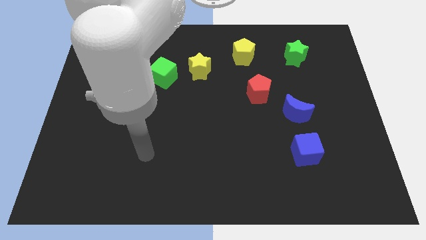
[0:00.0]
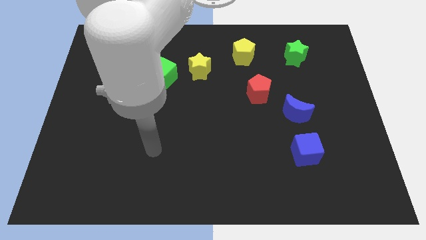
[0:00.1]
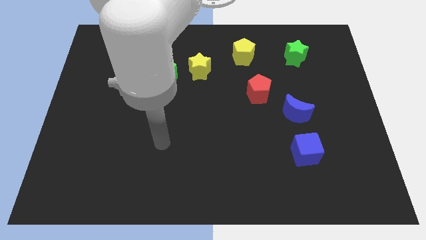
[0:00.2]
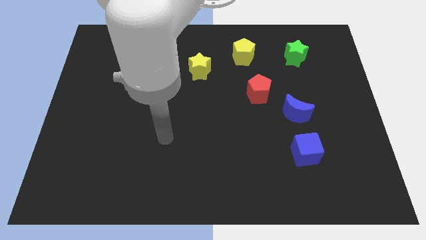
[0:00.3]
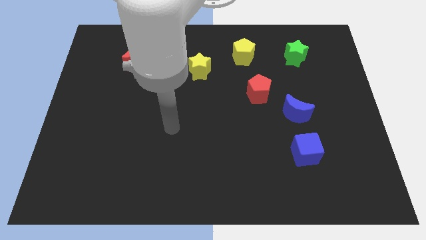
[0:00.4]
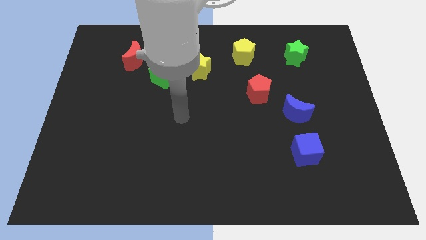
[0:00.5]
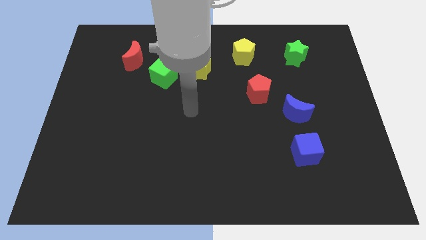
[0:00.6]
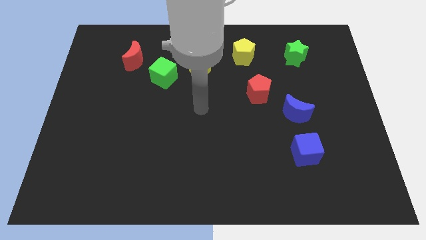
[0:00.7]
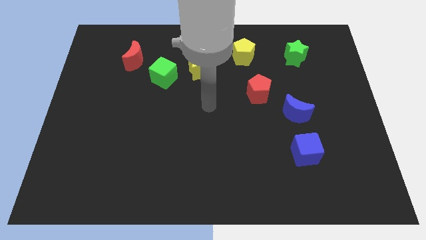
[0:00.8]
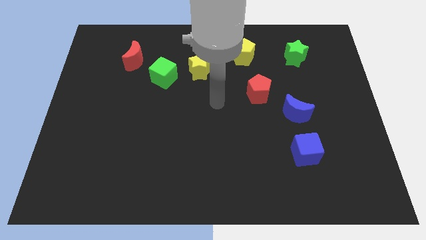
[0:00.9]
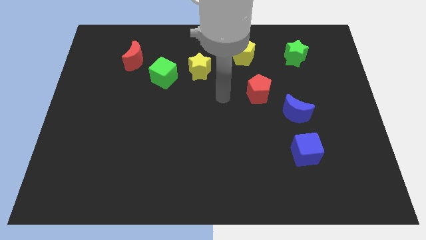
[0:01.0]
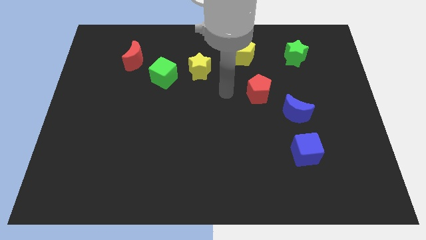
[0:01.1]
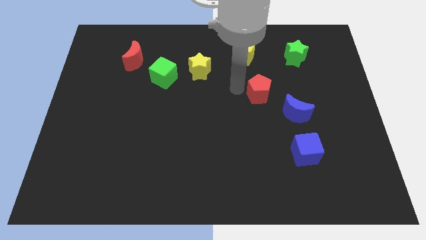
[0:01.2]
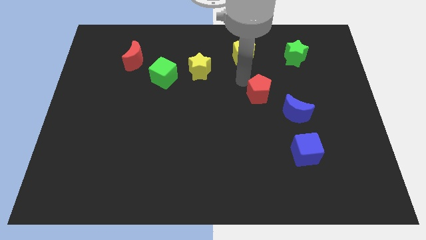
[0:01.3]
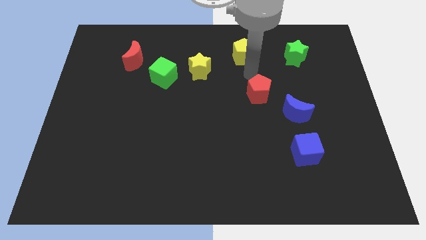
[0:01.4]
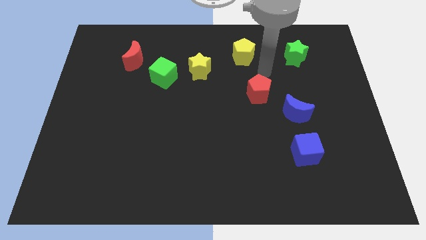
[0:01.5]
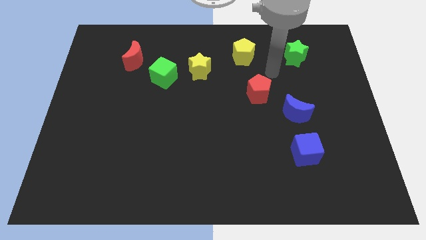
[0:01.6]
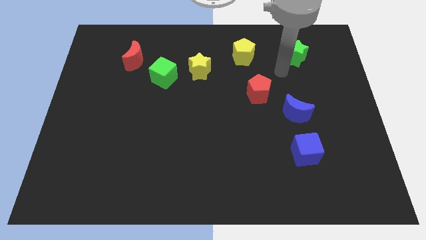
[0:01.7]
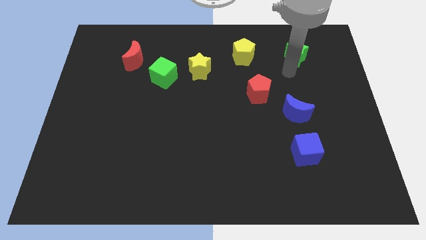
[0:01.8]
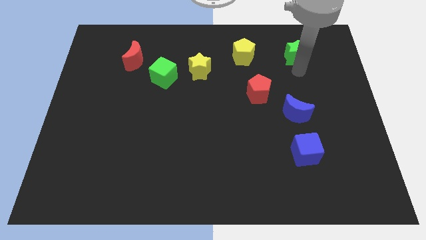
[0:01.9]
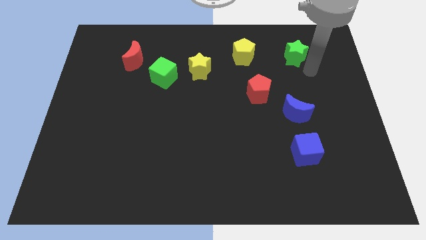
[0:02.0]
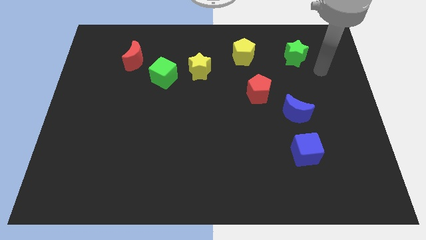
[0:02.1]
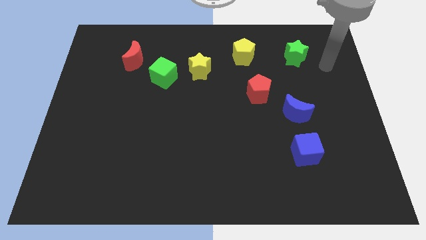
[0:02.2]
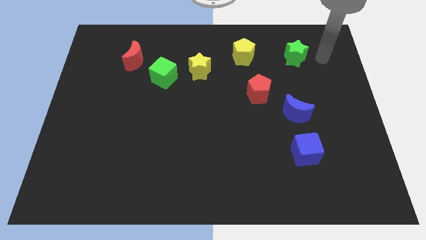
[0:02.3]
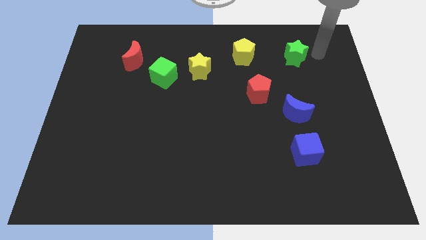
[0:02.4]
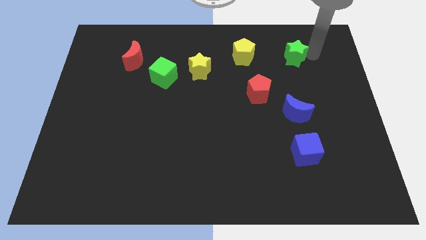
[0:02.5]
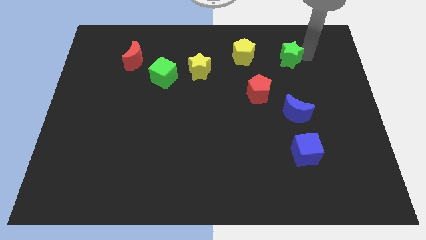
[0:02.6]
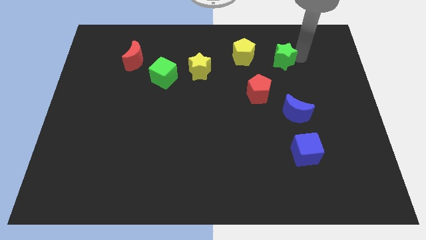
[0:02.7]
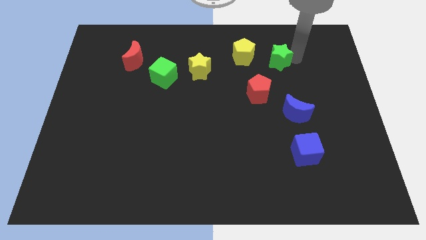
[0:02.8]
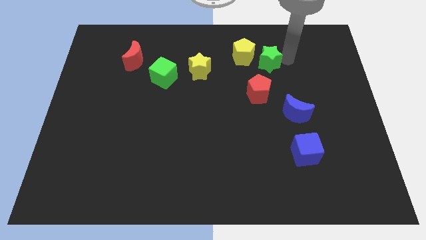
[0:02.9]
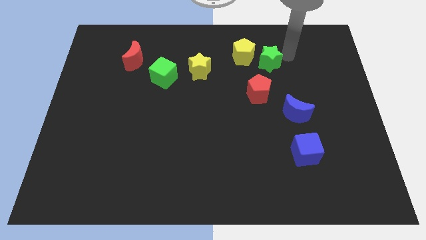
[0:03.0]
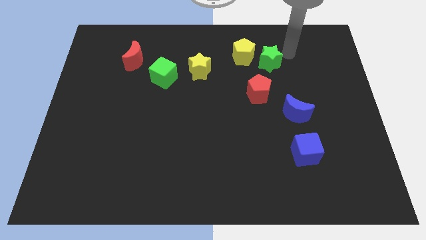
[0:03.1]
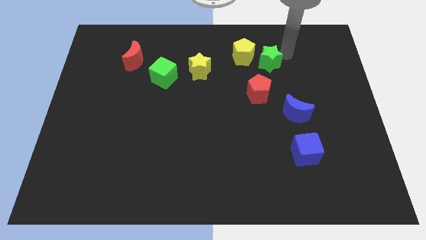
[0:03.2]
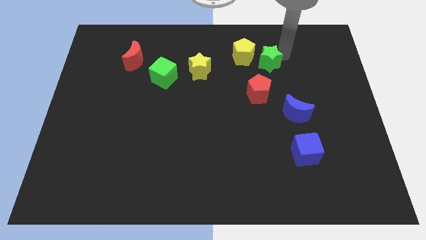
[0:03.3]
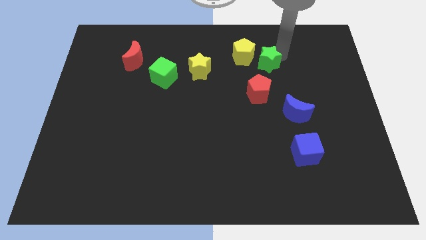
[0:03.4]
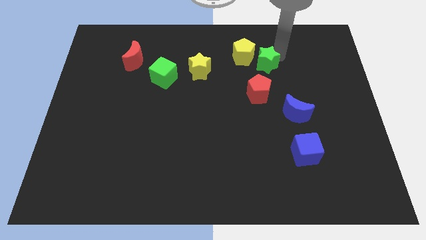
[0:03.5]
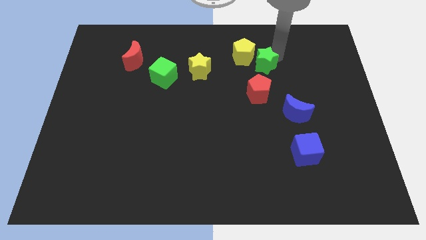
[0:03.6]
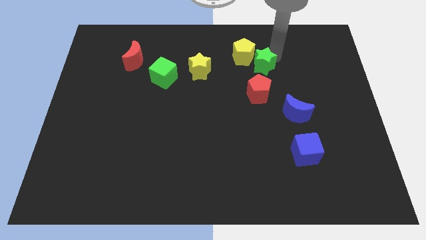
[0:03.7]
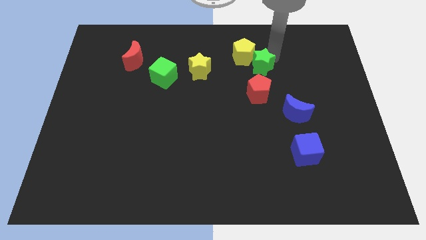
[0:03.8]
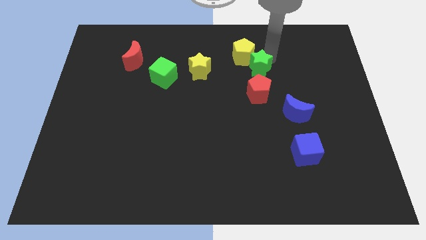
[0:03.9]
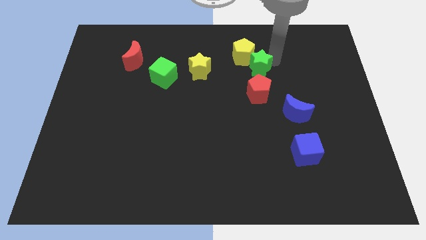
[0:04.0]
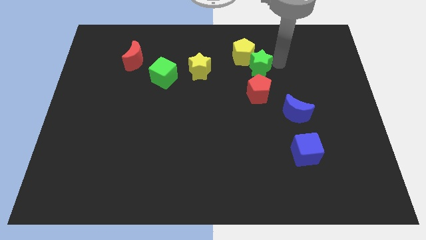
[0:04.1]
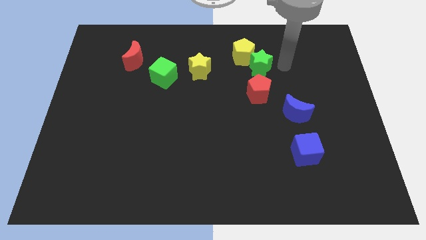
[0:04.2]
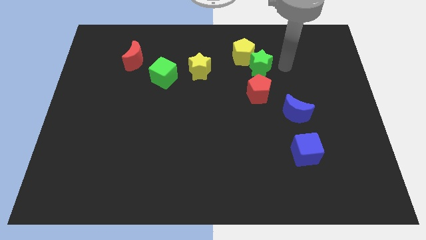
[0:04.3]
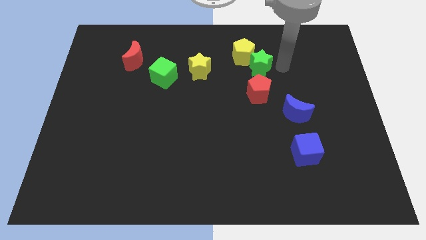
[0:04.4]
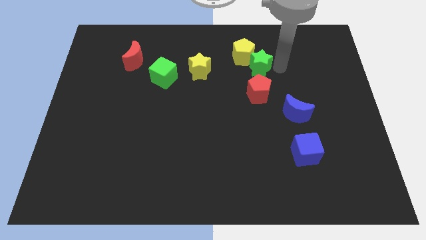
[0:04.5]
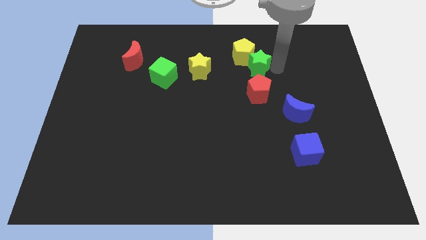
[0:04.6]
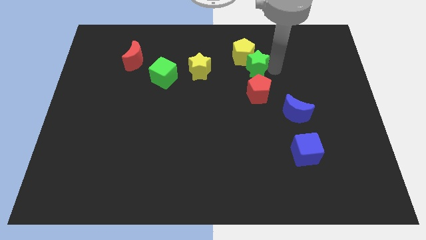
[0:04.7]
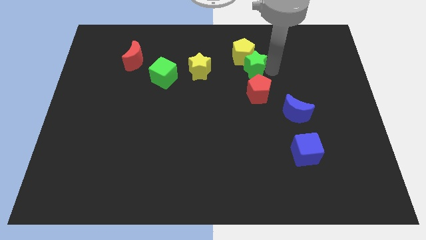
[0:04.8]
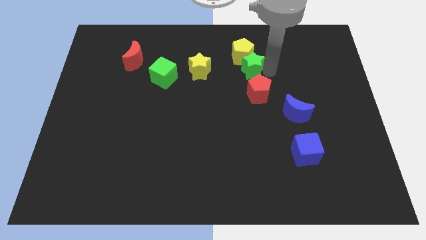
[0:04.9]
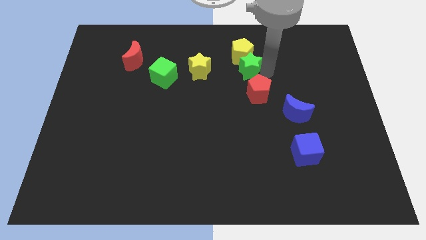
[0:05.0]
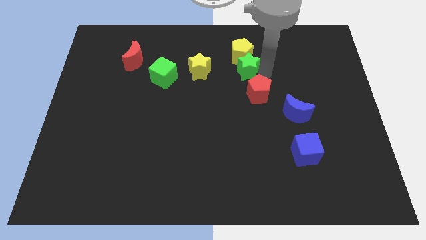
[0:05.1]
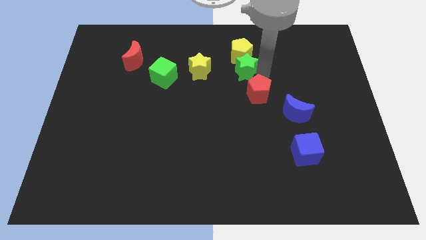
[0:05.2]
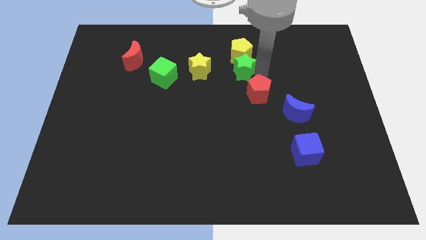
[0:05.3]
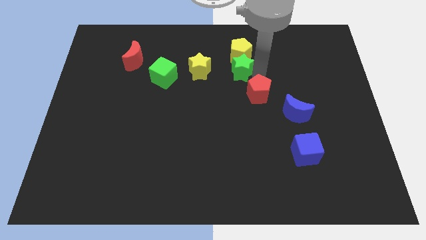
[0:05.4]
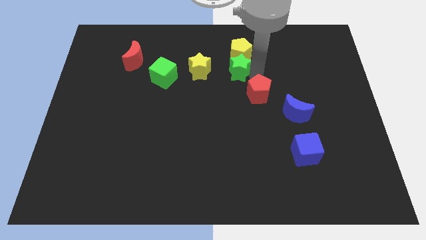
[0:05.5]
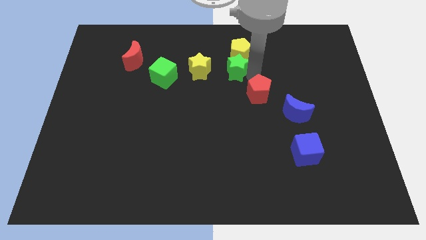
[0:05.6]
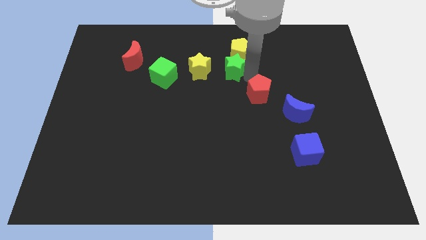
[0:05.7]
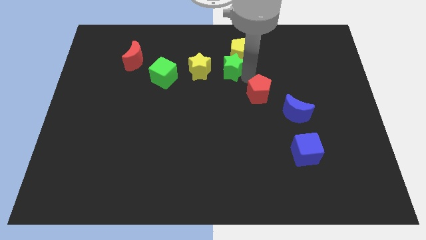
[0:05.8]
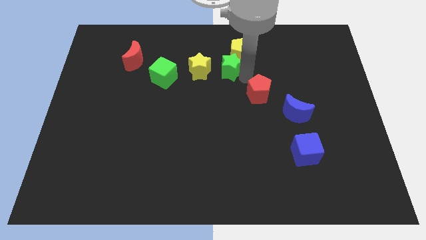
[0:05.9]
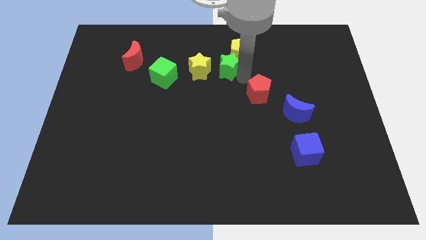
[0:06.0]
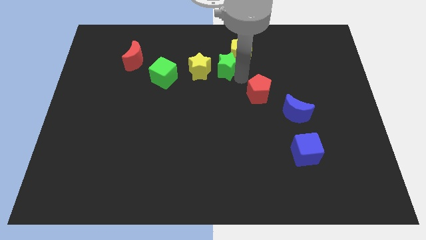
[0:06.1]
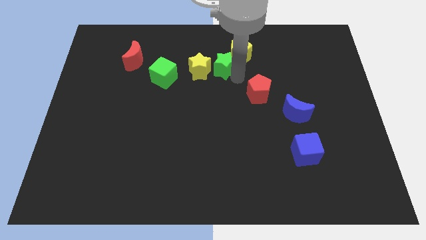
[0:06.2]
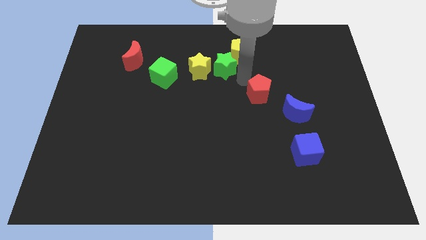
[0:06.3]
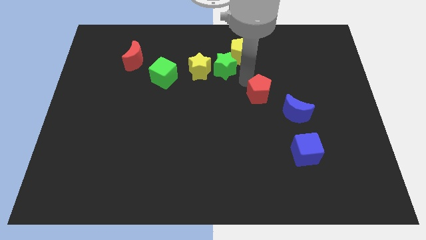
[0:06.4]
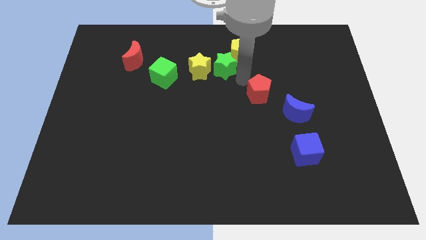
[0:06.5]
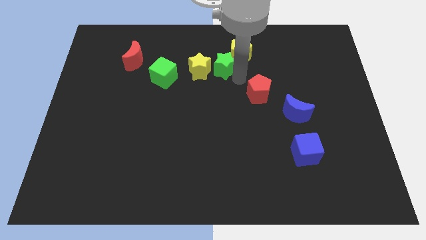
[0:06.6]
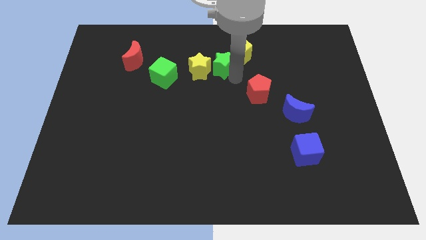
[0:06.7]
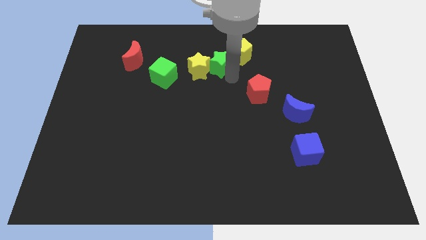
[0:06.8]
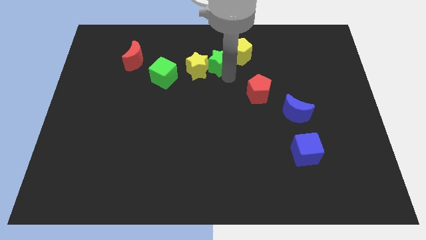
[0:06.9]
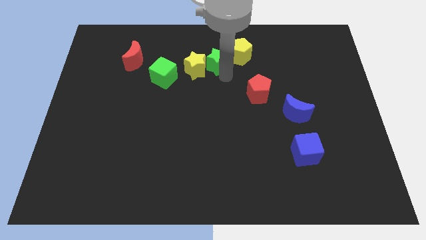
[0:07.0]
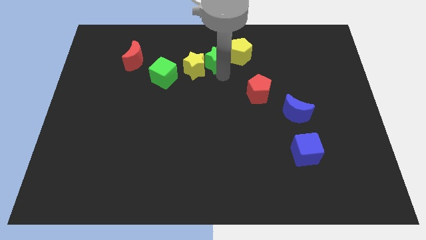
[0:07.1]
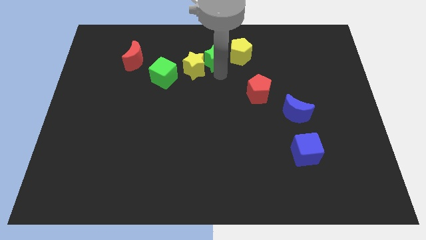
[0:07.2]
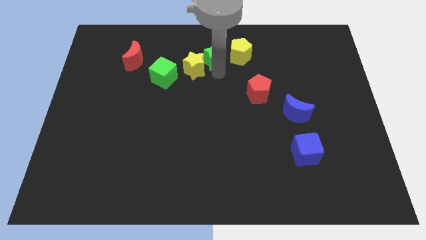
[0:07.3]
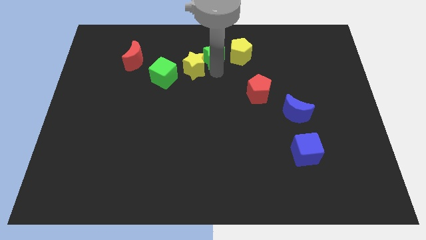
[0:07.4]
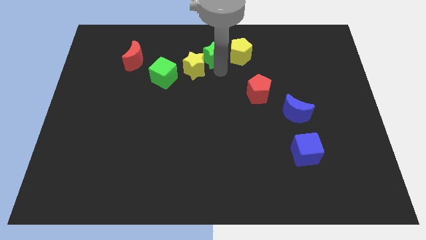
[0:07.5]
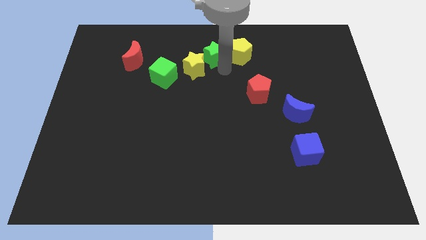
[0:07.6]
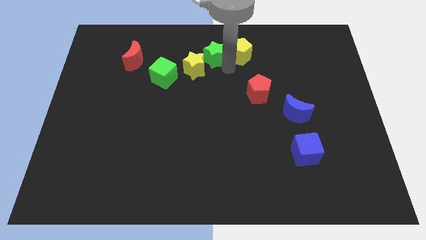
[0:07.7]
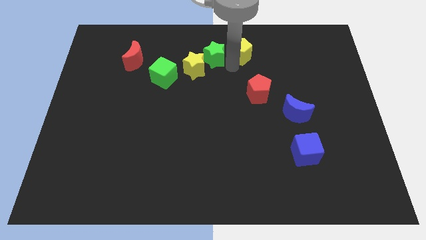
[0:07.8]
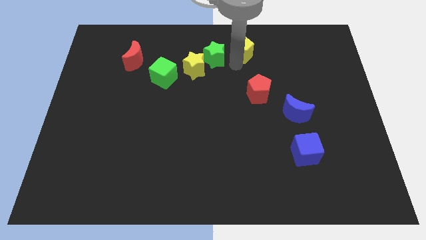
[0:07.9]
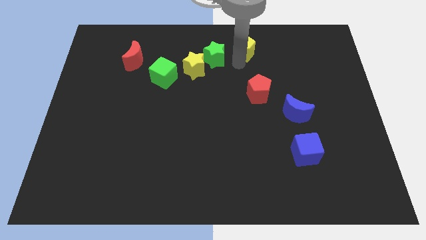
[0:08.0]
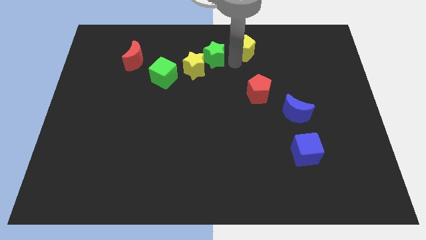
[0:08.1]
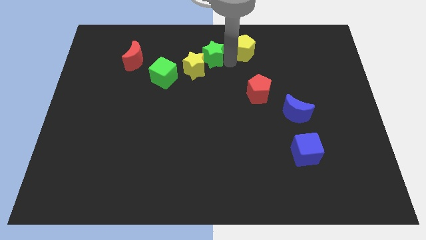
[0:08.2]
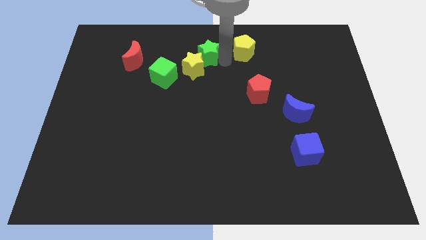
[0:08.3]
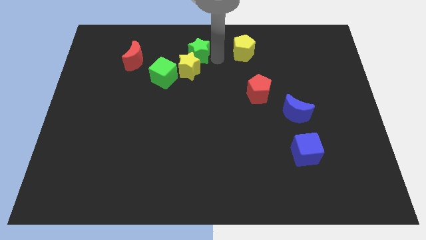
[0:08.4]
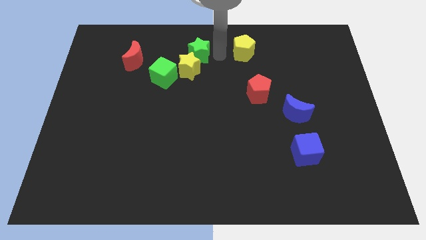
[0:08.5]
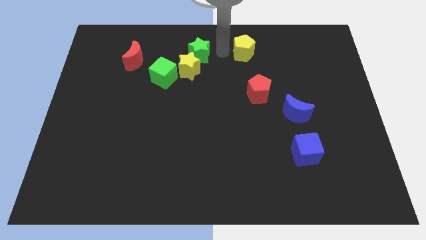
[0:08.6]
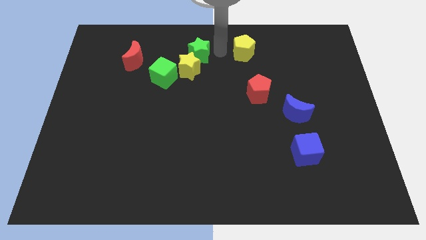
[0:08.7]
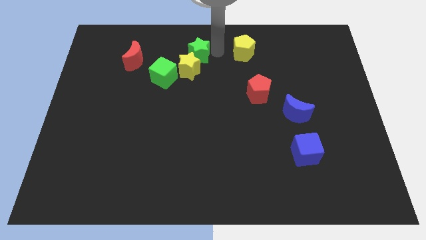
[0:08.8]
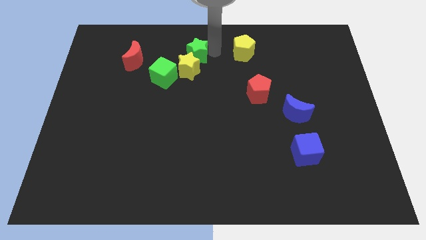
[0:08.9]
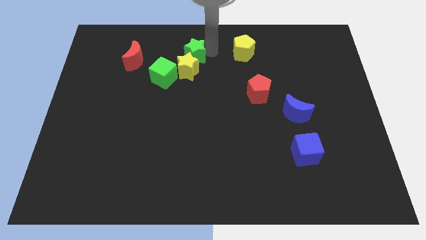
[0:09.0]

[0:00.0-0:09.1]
slide the green star to the right side of the red moon
